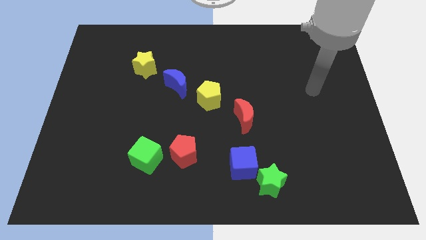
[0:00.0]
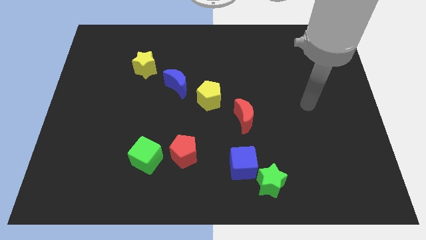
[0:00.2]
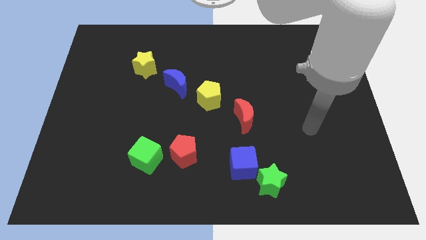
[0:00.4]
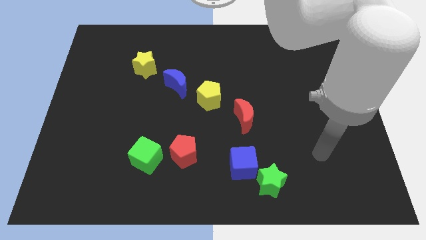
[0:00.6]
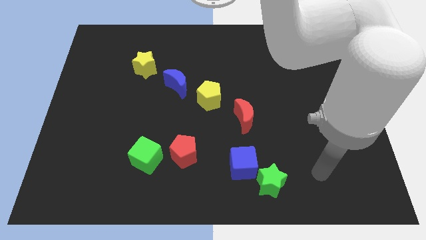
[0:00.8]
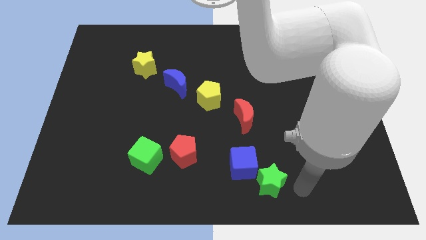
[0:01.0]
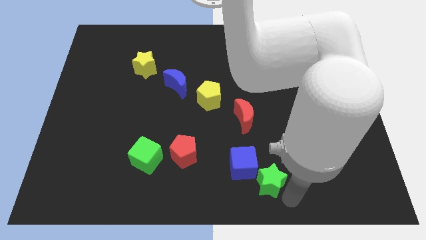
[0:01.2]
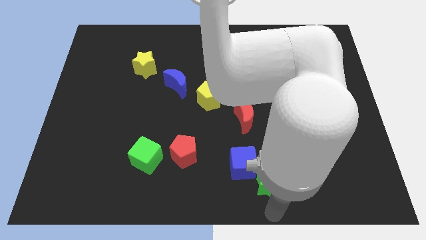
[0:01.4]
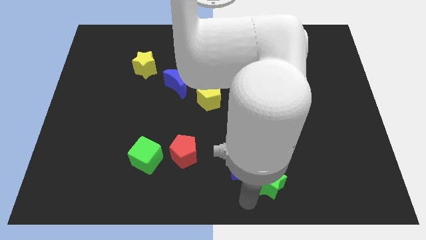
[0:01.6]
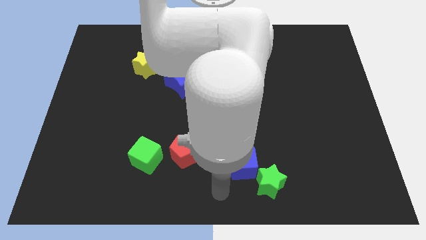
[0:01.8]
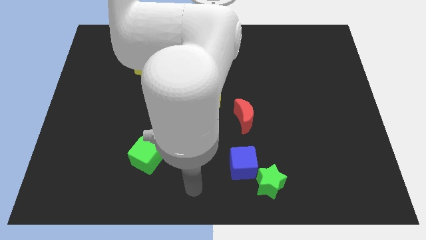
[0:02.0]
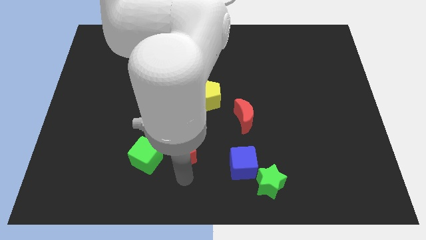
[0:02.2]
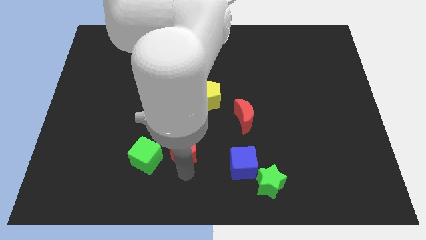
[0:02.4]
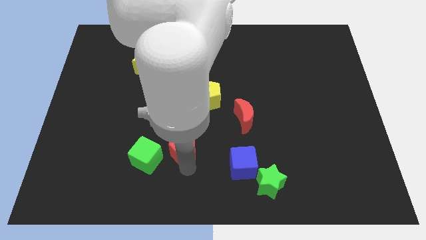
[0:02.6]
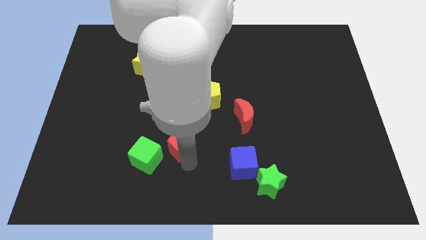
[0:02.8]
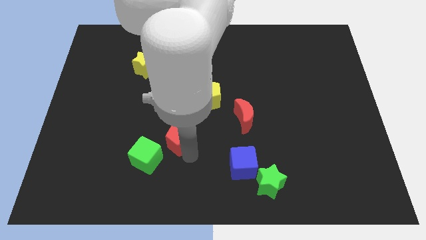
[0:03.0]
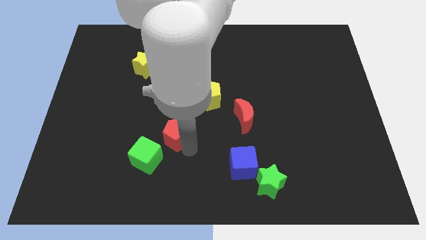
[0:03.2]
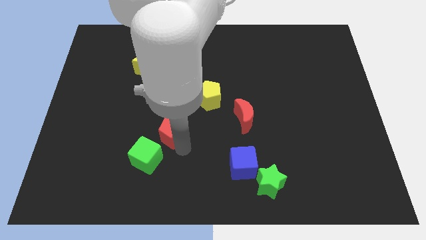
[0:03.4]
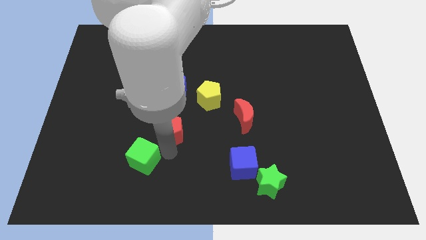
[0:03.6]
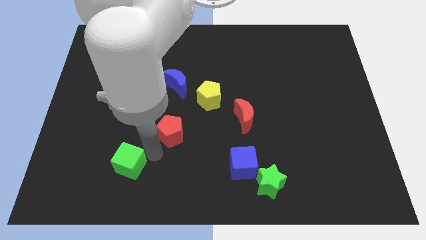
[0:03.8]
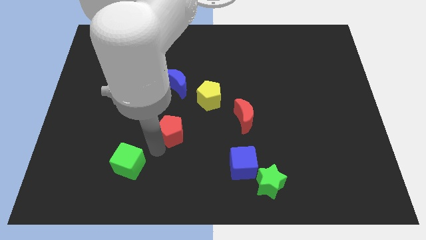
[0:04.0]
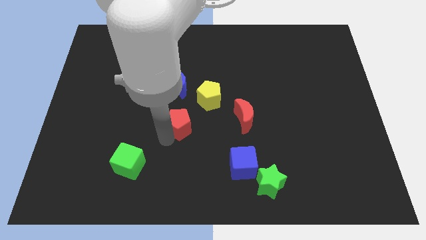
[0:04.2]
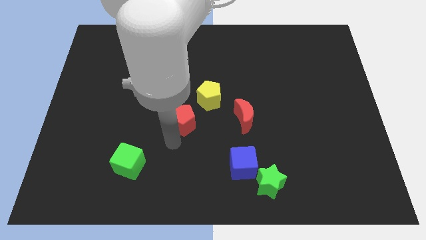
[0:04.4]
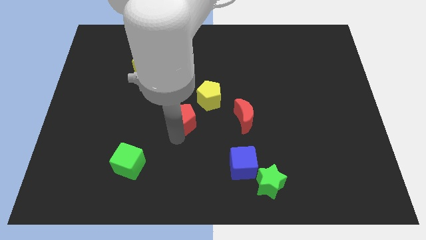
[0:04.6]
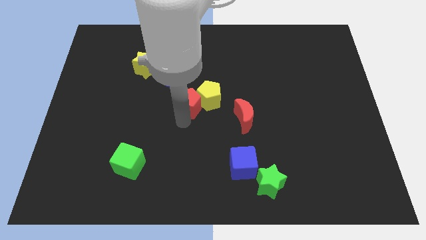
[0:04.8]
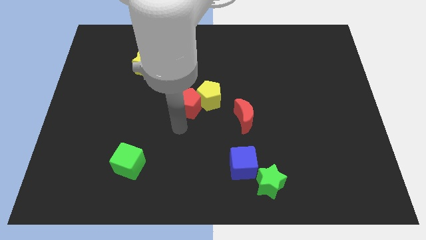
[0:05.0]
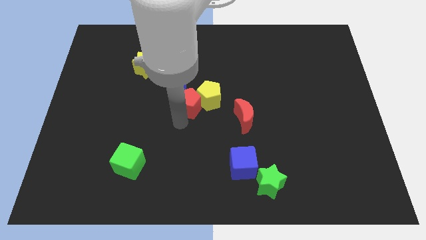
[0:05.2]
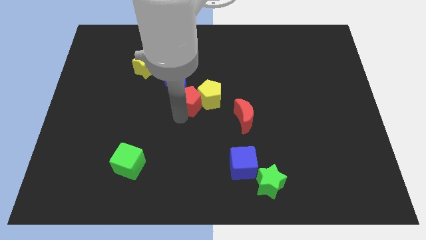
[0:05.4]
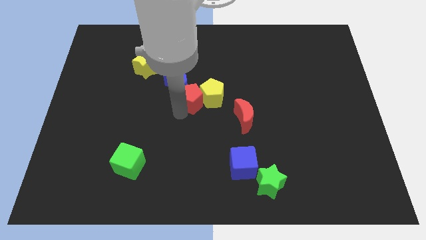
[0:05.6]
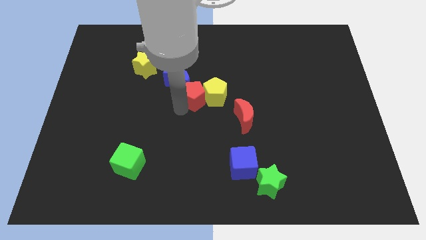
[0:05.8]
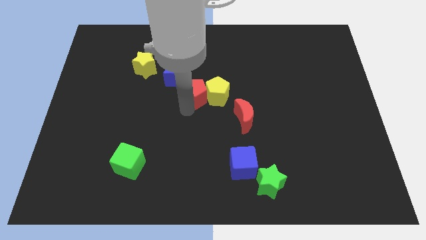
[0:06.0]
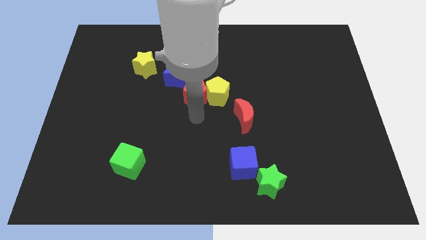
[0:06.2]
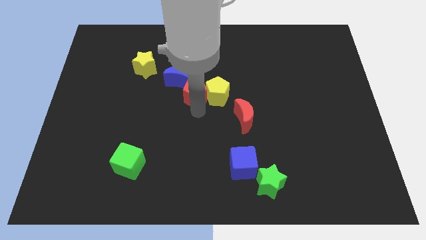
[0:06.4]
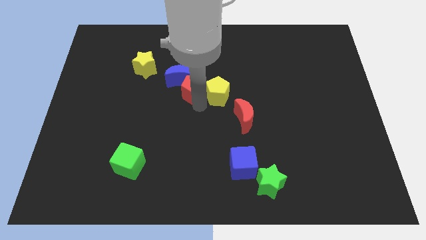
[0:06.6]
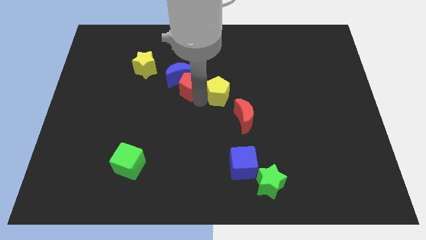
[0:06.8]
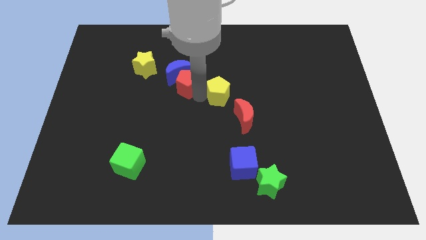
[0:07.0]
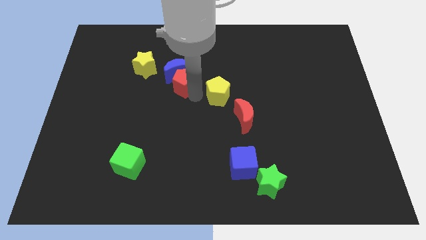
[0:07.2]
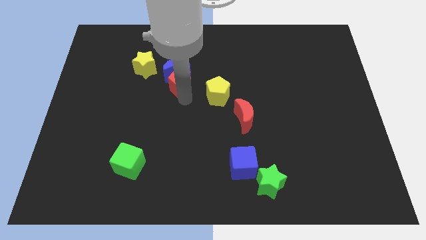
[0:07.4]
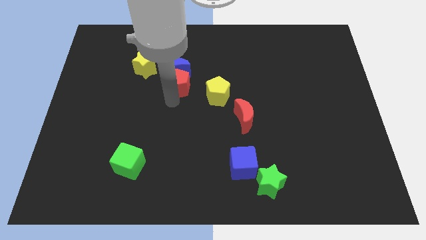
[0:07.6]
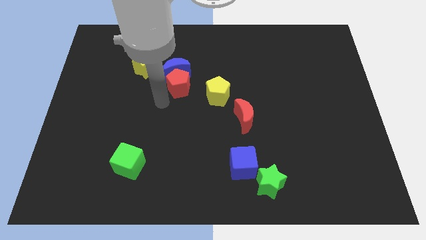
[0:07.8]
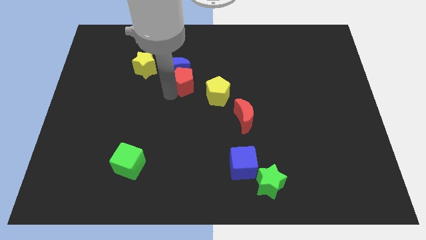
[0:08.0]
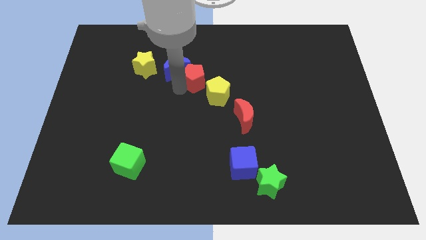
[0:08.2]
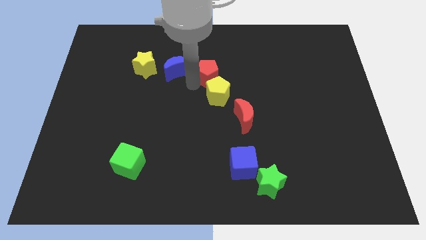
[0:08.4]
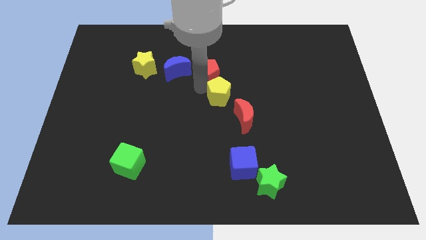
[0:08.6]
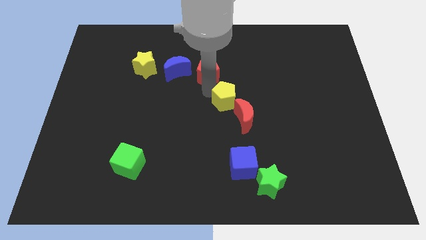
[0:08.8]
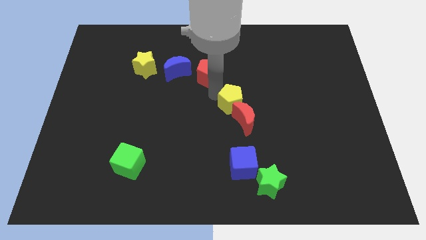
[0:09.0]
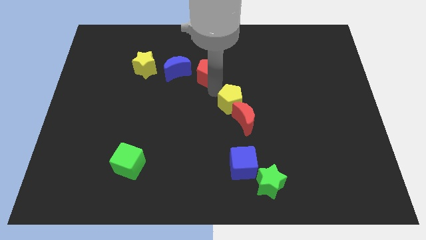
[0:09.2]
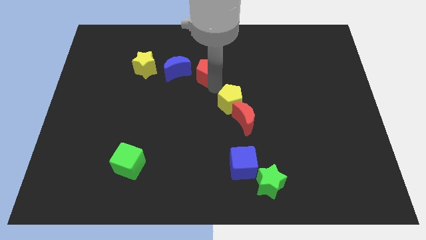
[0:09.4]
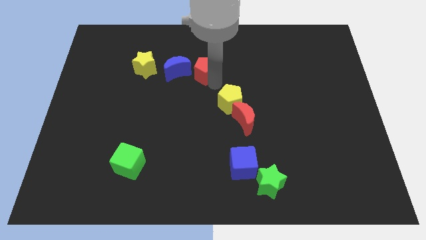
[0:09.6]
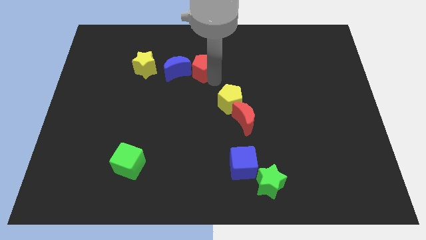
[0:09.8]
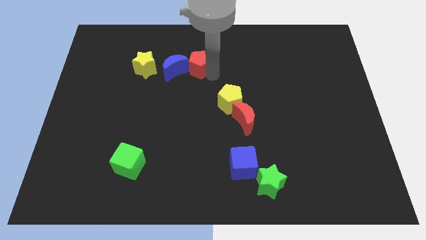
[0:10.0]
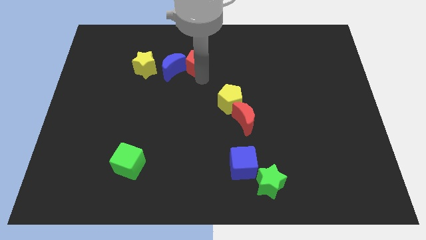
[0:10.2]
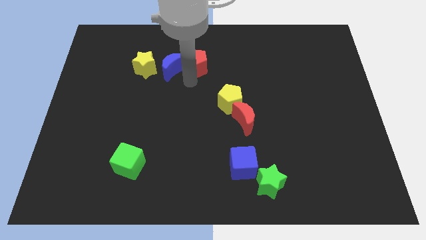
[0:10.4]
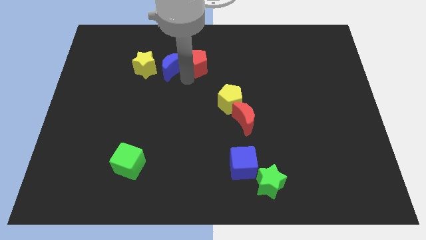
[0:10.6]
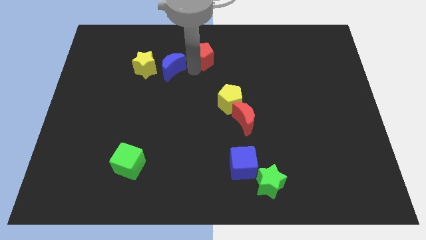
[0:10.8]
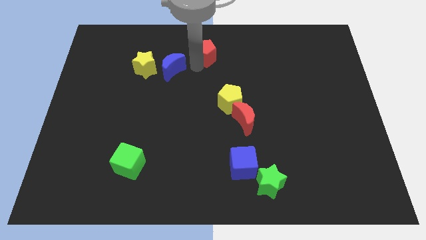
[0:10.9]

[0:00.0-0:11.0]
slide the red pentagon to the top side

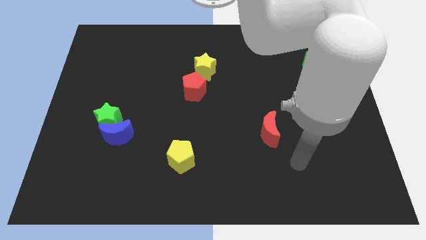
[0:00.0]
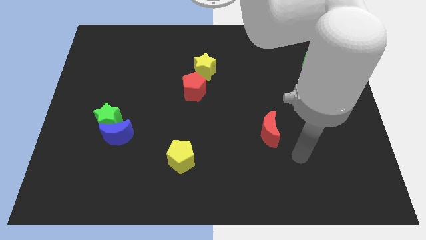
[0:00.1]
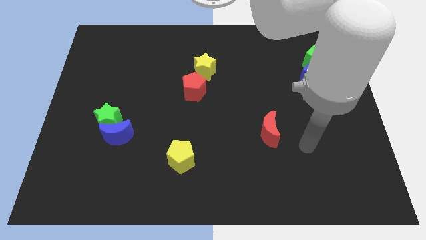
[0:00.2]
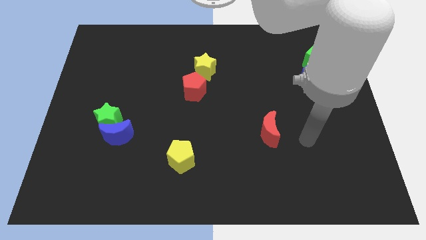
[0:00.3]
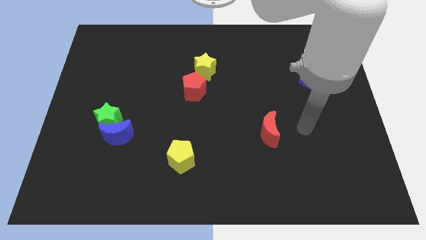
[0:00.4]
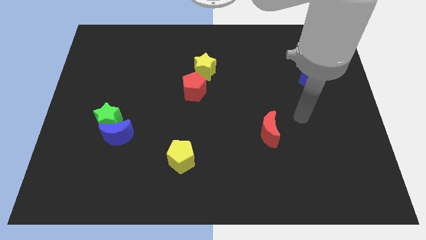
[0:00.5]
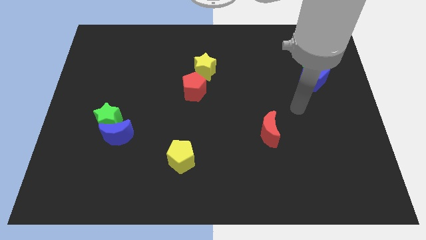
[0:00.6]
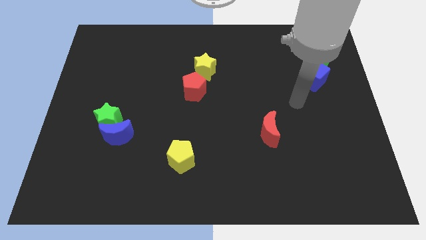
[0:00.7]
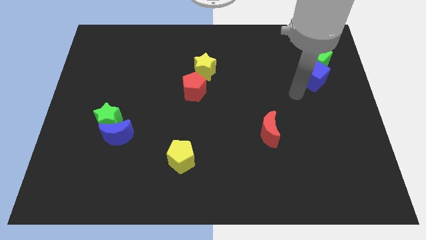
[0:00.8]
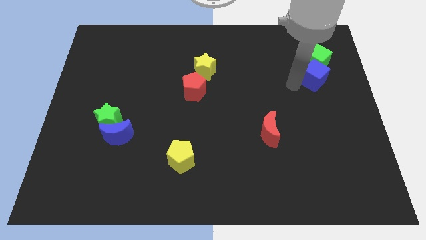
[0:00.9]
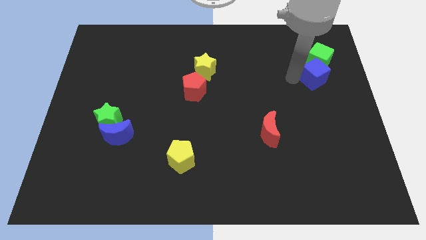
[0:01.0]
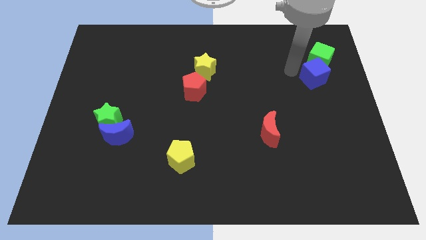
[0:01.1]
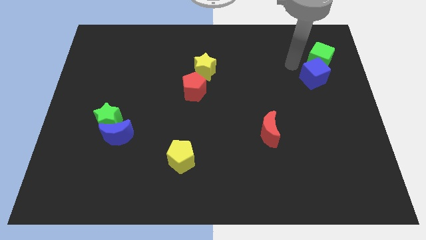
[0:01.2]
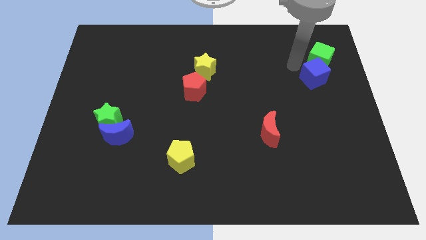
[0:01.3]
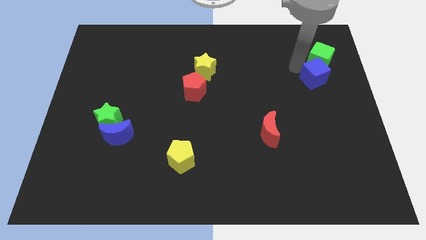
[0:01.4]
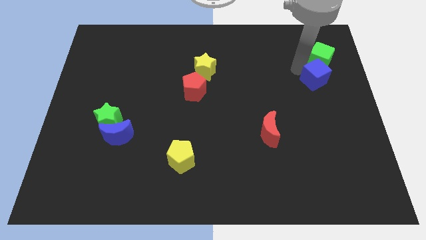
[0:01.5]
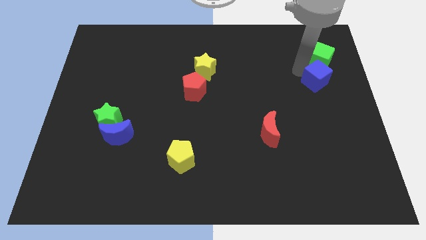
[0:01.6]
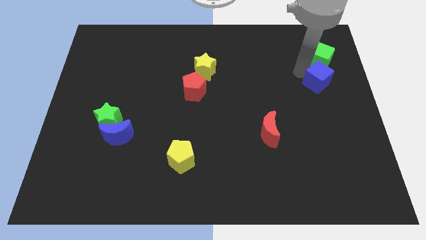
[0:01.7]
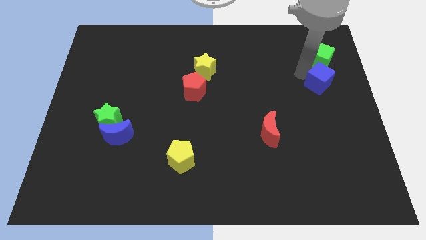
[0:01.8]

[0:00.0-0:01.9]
push the blue cube to the right side of the board
